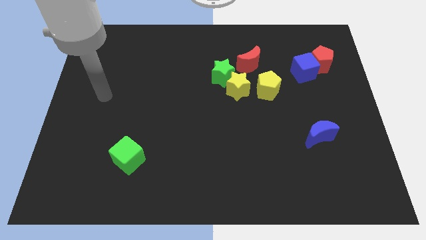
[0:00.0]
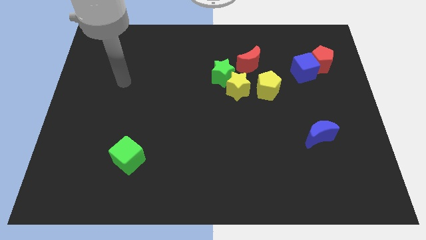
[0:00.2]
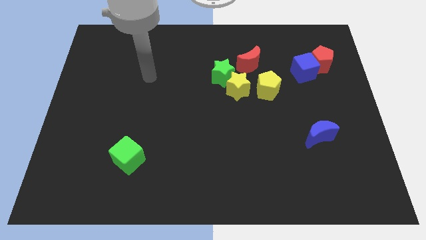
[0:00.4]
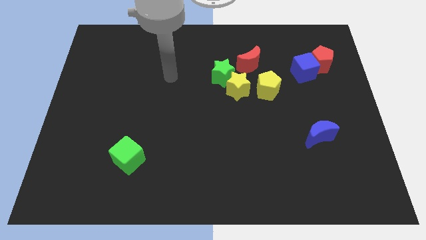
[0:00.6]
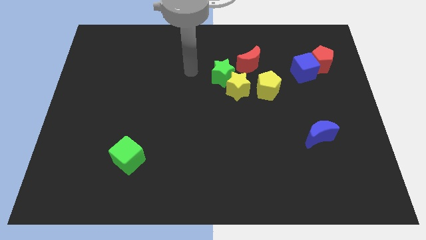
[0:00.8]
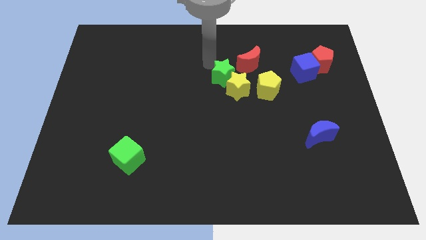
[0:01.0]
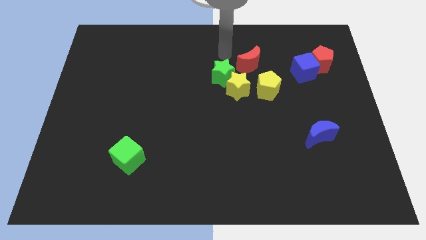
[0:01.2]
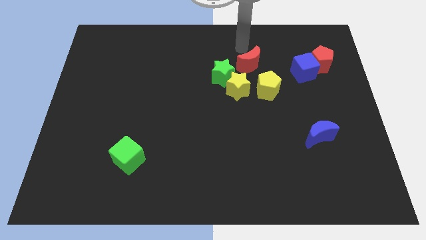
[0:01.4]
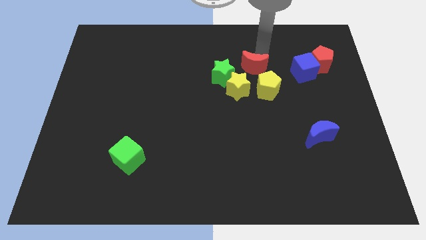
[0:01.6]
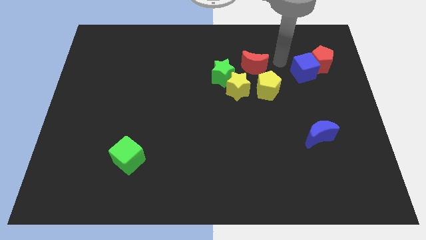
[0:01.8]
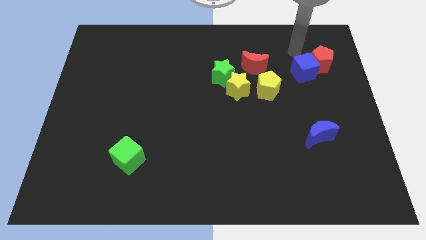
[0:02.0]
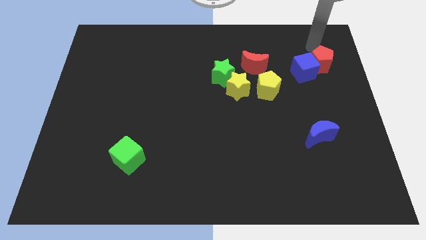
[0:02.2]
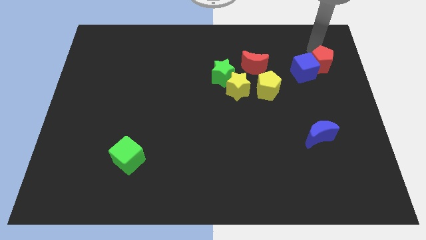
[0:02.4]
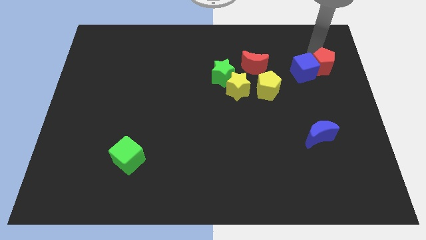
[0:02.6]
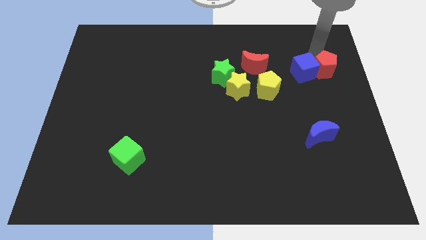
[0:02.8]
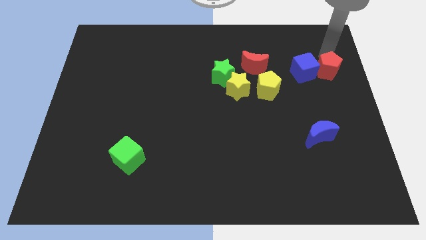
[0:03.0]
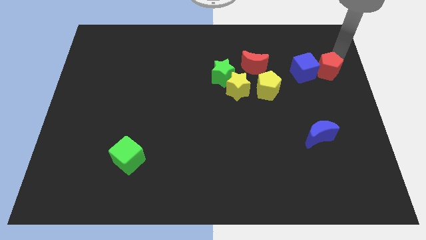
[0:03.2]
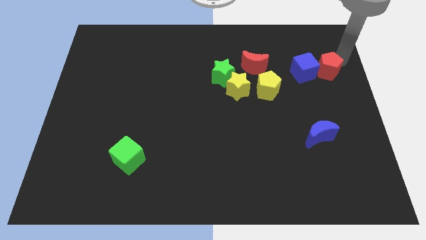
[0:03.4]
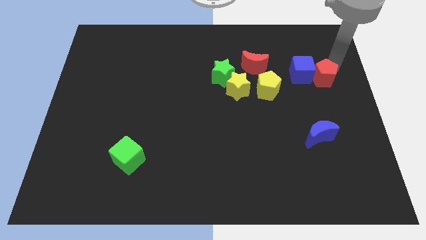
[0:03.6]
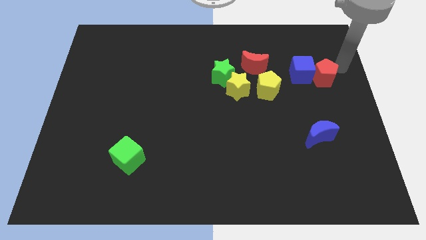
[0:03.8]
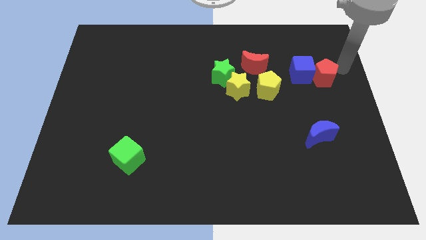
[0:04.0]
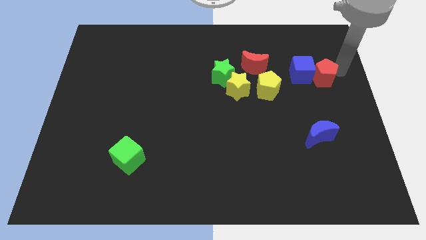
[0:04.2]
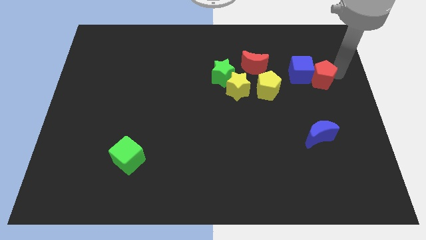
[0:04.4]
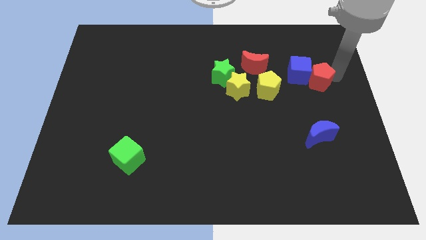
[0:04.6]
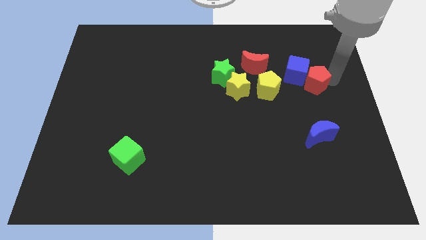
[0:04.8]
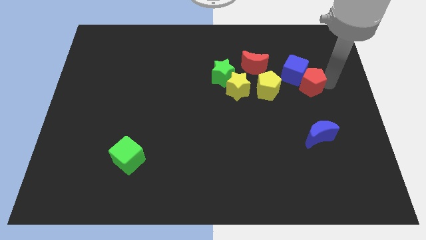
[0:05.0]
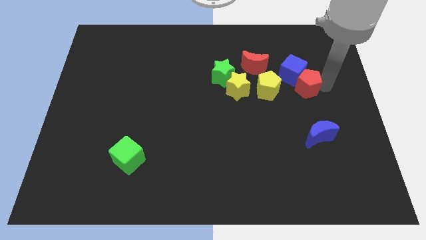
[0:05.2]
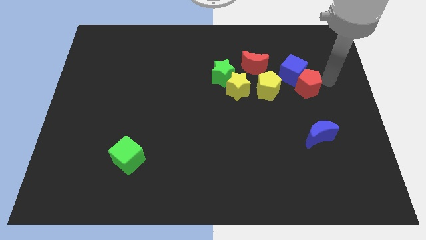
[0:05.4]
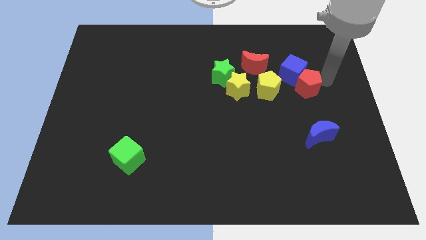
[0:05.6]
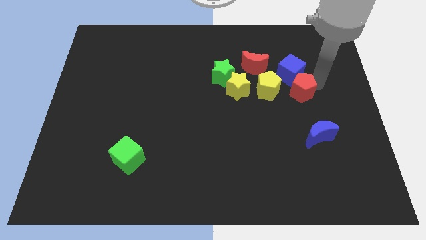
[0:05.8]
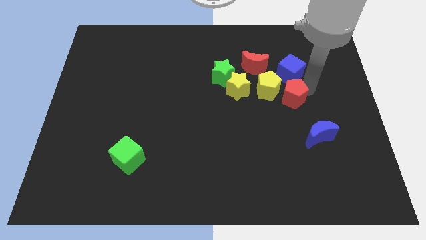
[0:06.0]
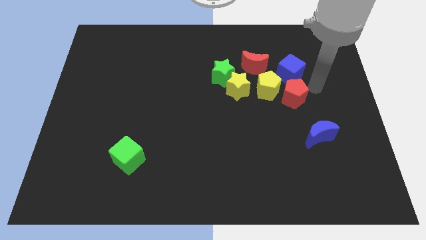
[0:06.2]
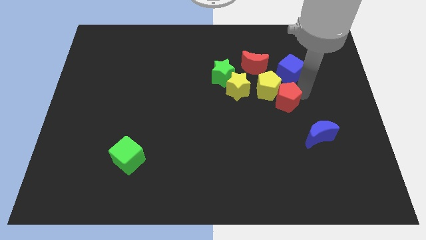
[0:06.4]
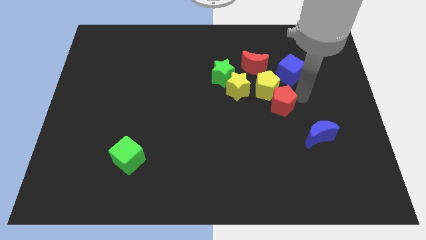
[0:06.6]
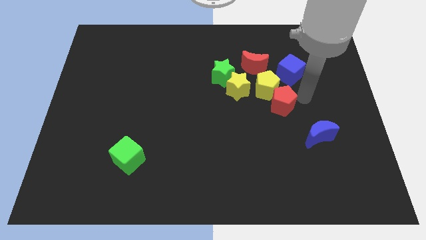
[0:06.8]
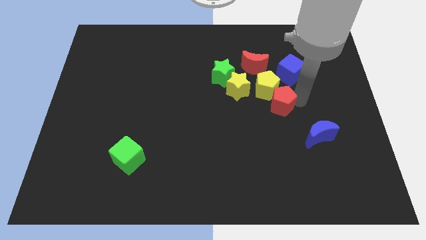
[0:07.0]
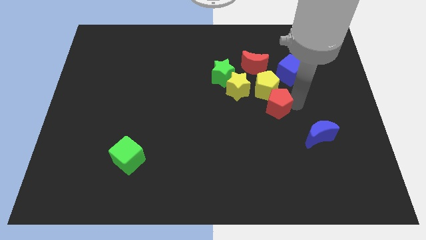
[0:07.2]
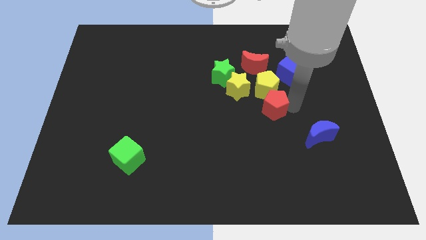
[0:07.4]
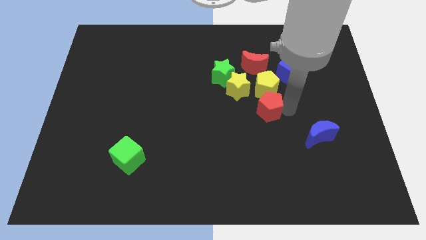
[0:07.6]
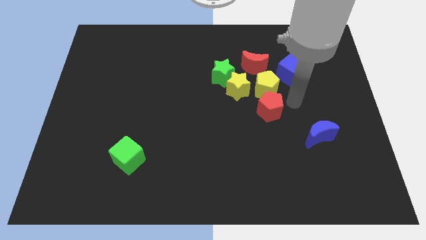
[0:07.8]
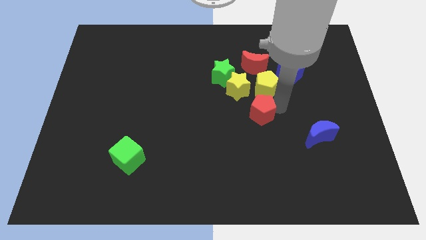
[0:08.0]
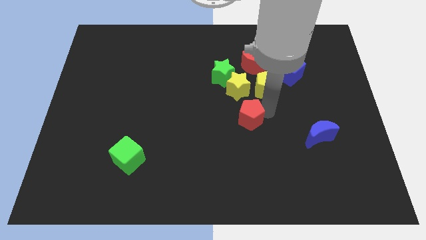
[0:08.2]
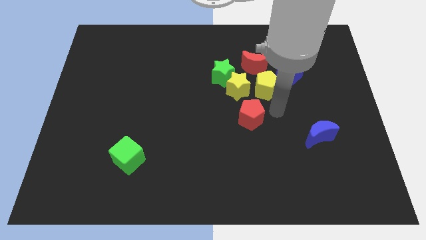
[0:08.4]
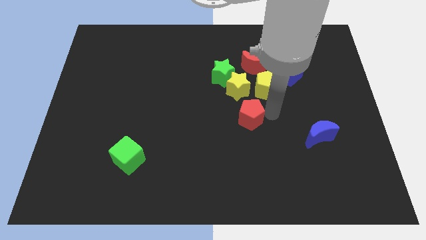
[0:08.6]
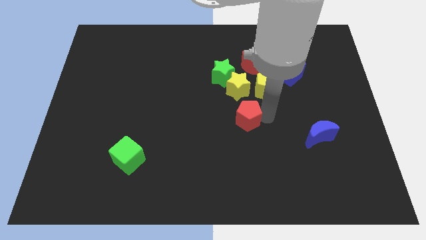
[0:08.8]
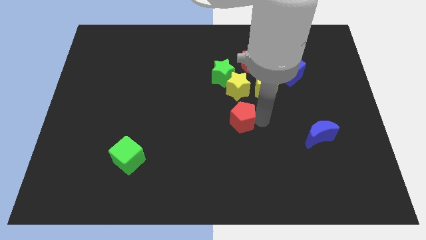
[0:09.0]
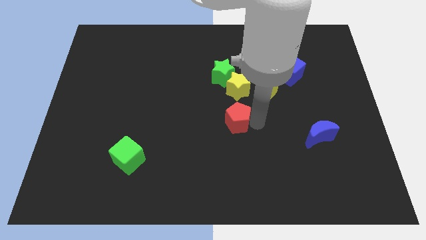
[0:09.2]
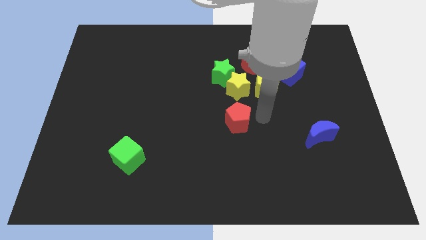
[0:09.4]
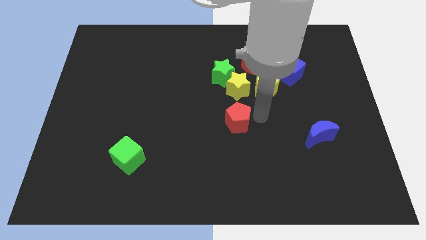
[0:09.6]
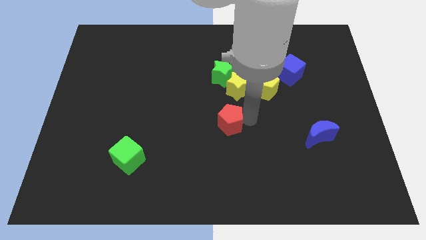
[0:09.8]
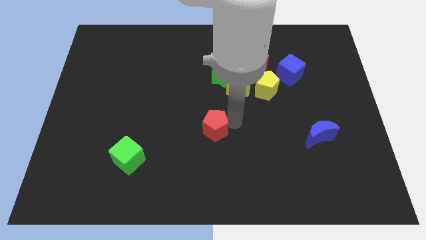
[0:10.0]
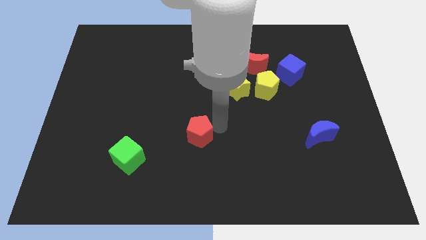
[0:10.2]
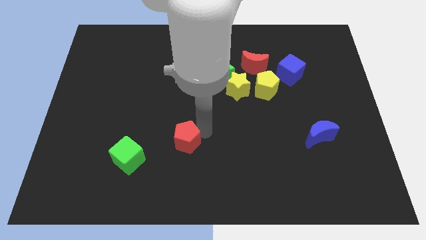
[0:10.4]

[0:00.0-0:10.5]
push the red pentagon right of the green cube

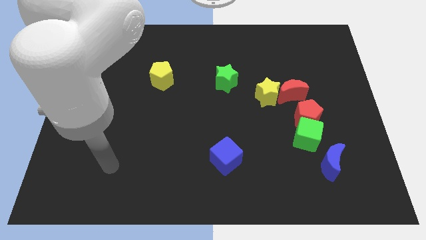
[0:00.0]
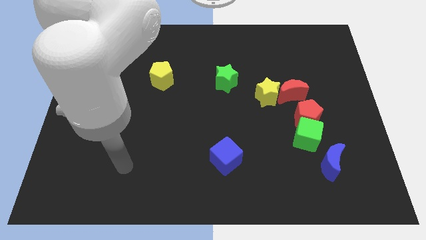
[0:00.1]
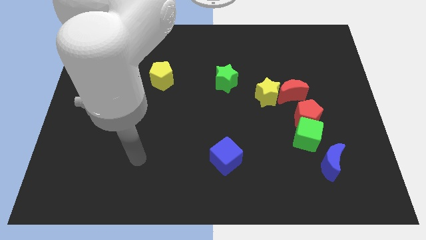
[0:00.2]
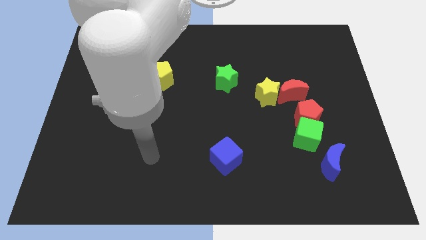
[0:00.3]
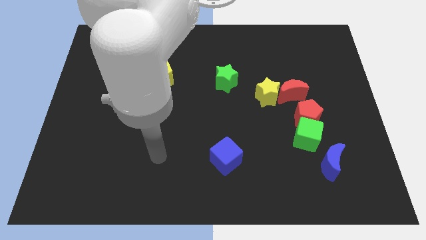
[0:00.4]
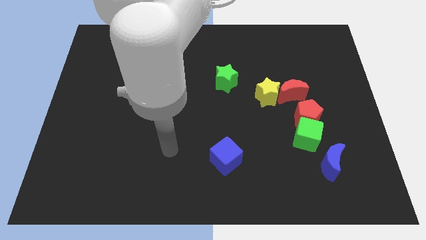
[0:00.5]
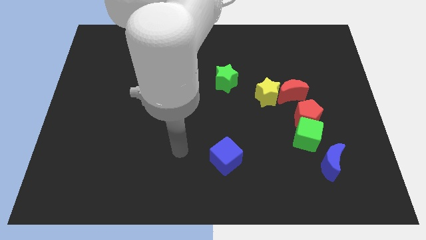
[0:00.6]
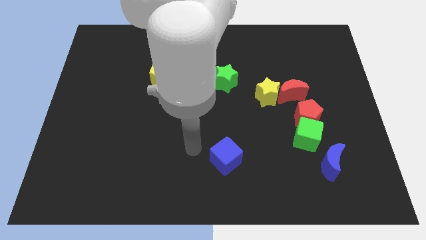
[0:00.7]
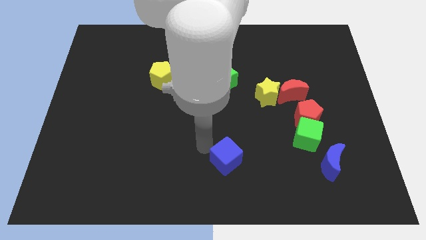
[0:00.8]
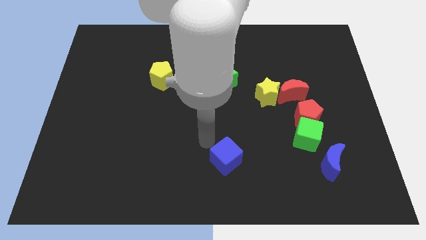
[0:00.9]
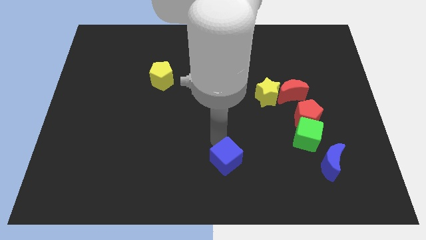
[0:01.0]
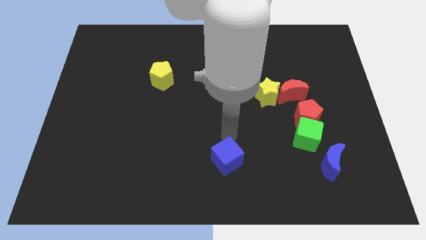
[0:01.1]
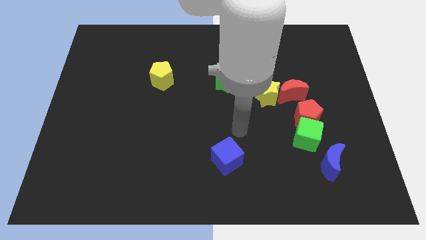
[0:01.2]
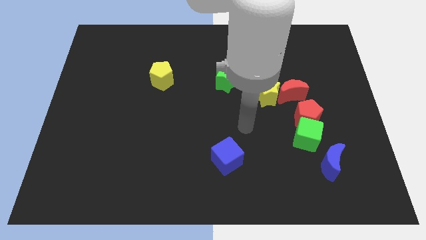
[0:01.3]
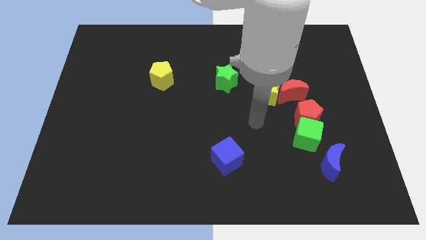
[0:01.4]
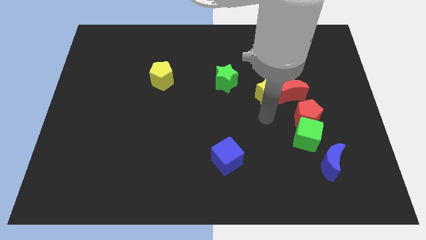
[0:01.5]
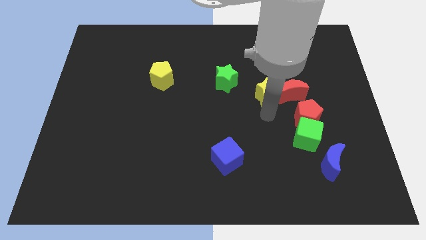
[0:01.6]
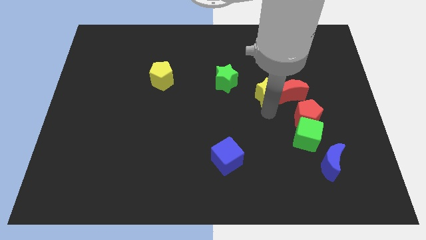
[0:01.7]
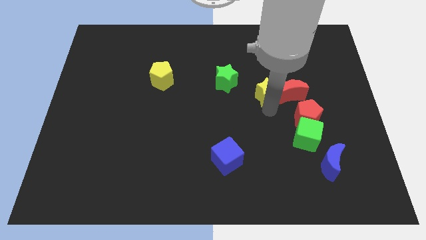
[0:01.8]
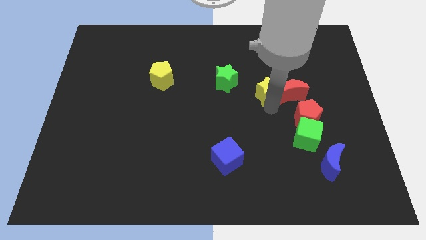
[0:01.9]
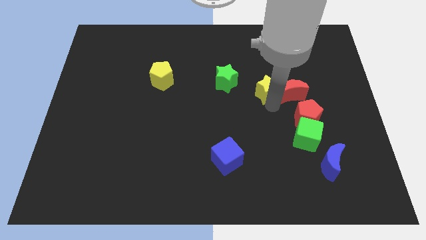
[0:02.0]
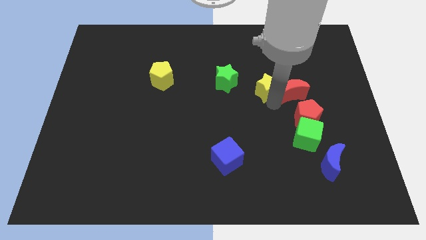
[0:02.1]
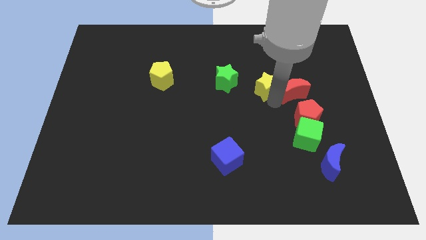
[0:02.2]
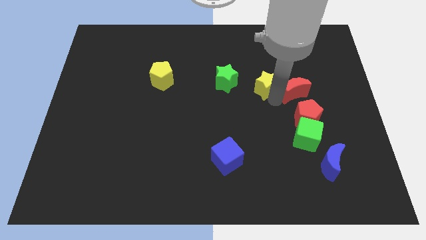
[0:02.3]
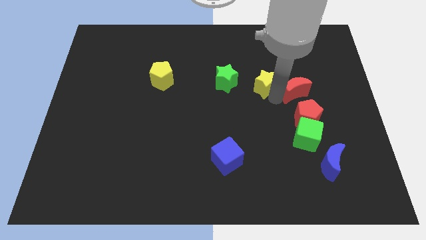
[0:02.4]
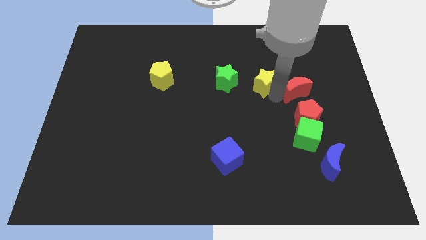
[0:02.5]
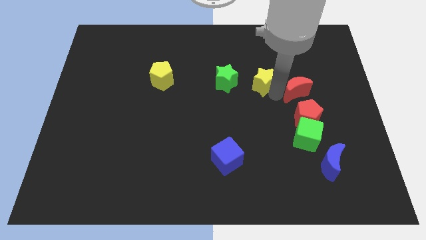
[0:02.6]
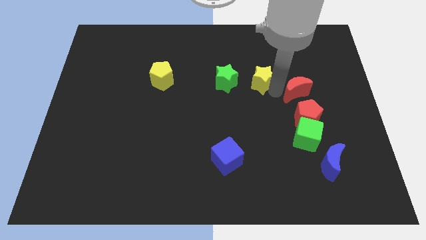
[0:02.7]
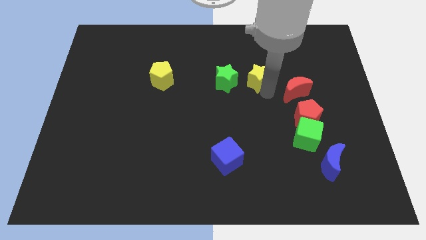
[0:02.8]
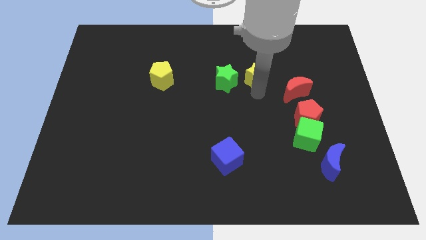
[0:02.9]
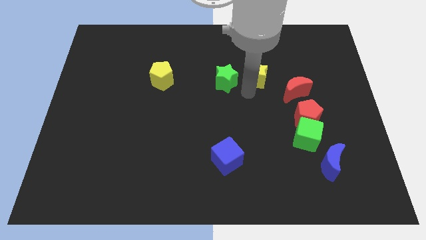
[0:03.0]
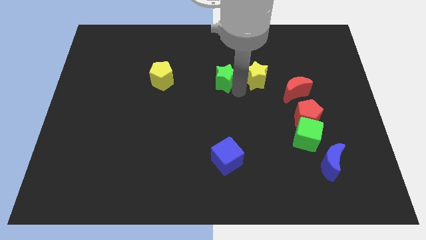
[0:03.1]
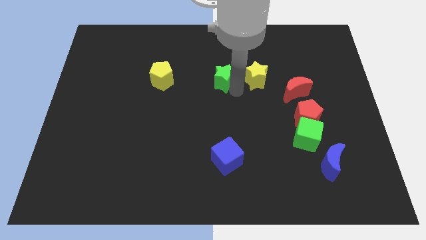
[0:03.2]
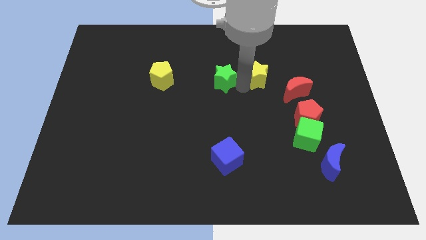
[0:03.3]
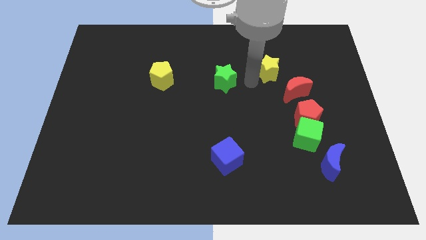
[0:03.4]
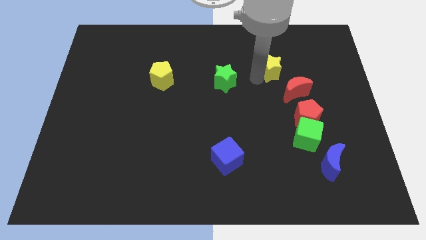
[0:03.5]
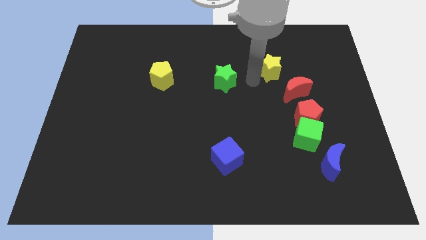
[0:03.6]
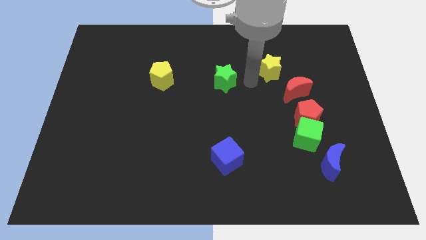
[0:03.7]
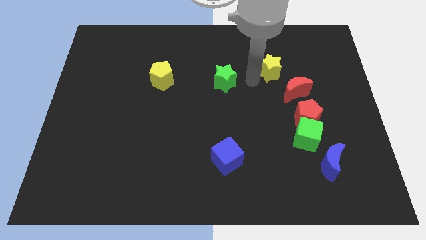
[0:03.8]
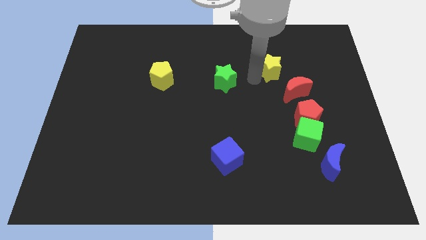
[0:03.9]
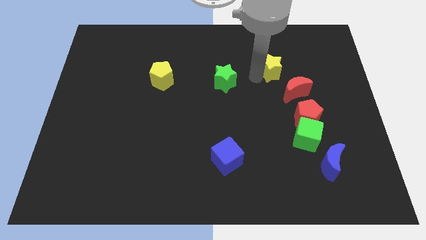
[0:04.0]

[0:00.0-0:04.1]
push the yellow star to the top of the red moon
